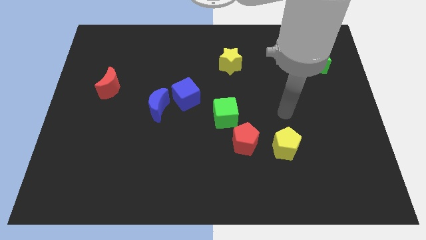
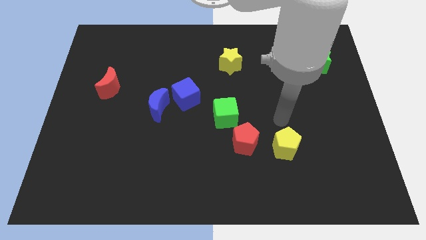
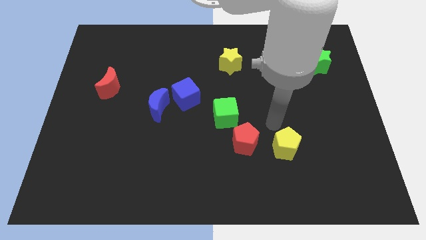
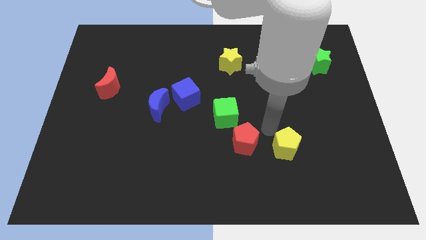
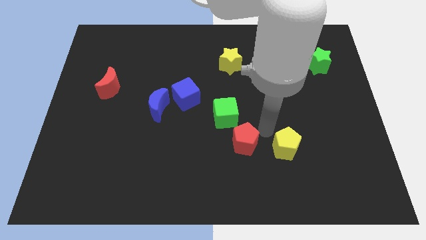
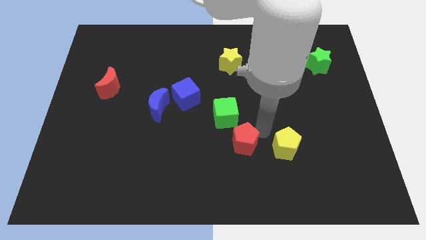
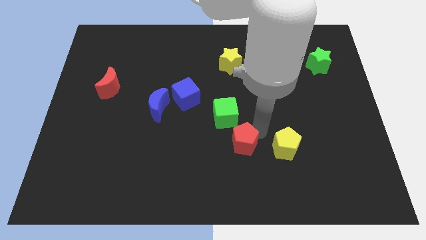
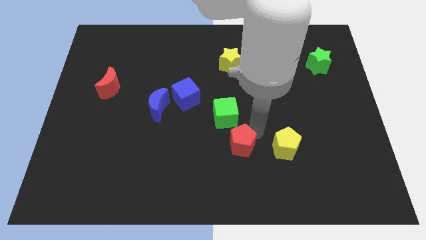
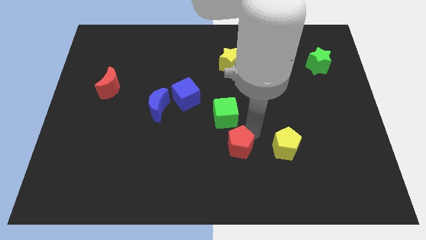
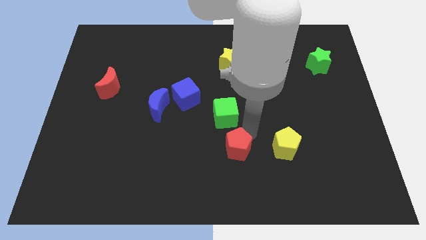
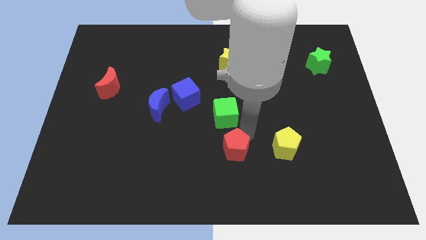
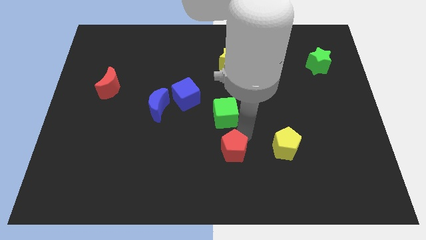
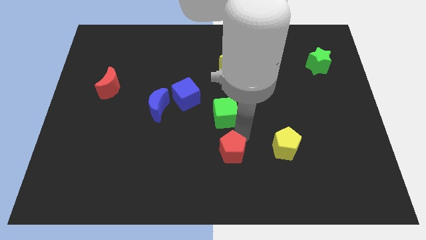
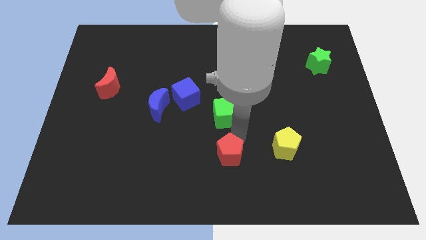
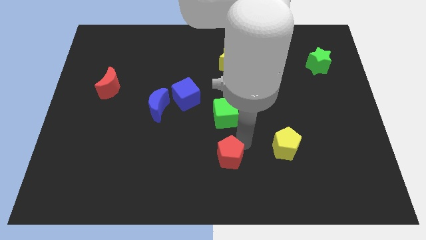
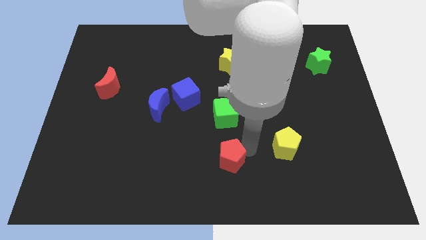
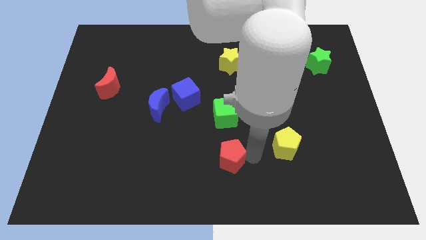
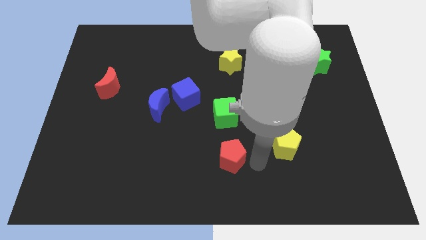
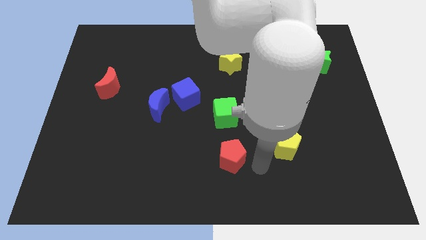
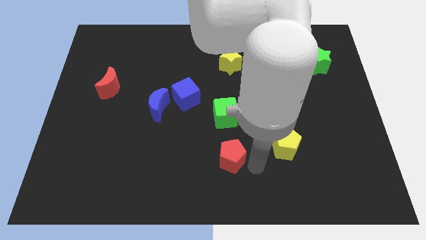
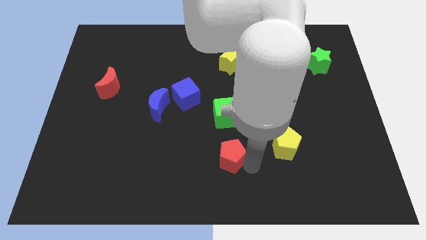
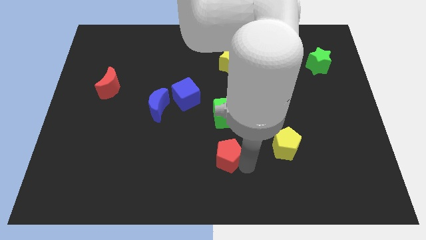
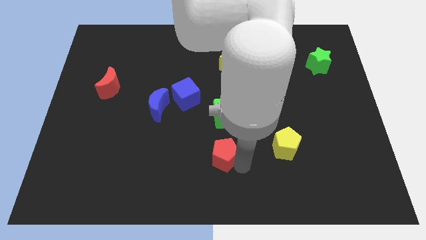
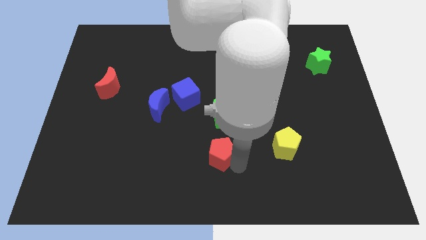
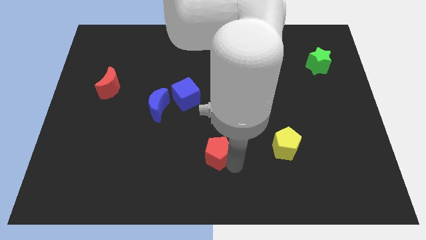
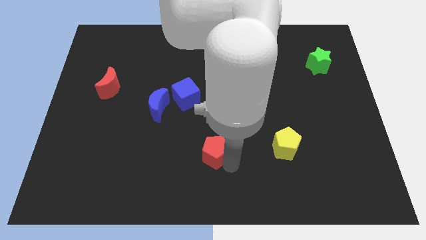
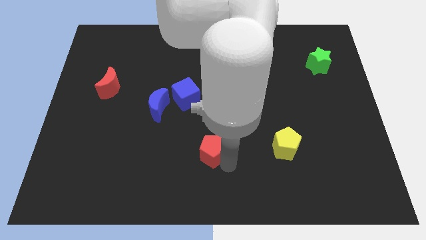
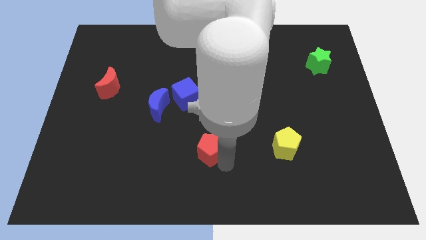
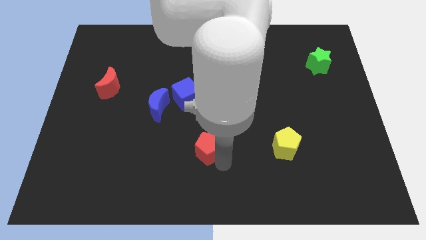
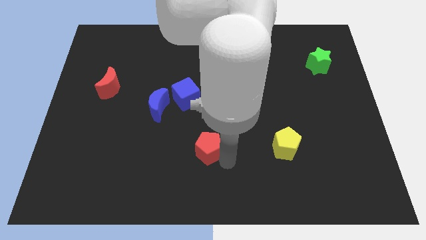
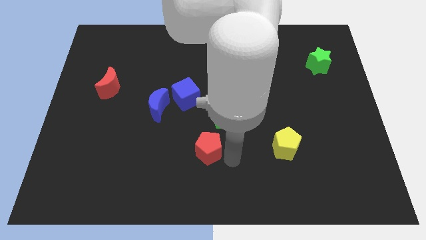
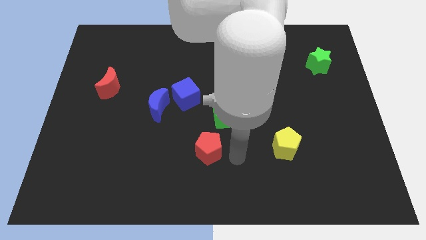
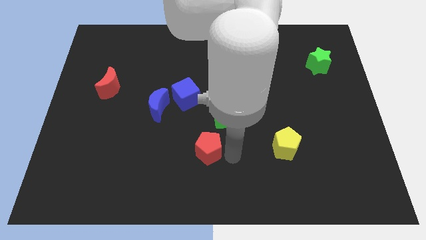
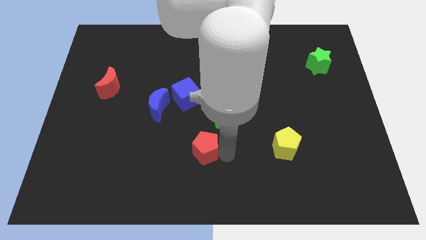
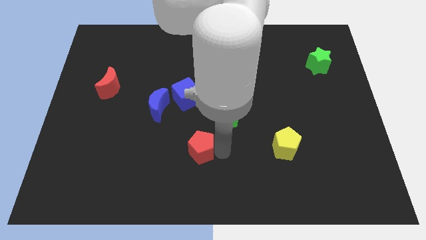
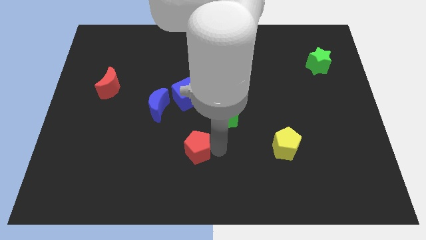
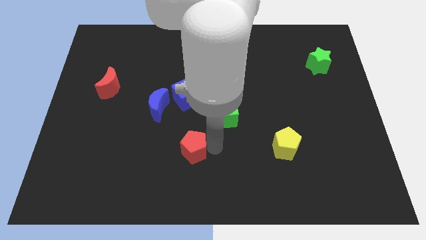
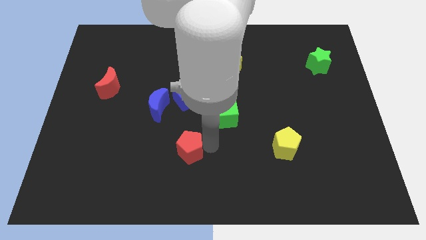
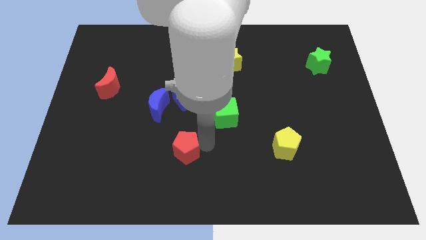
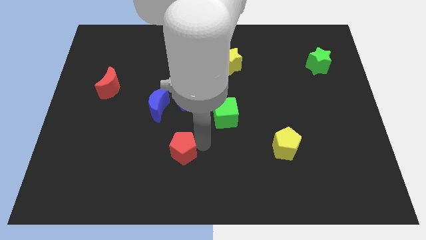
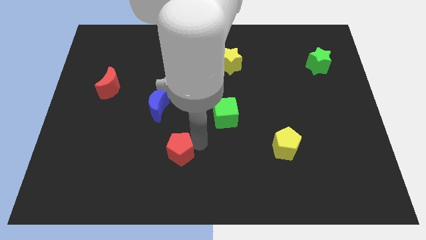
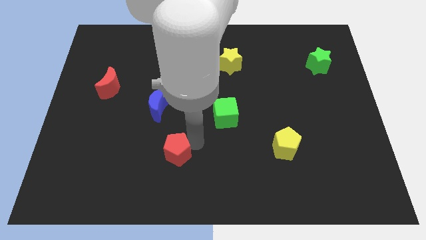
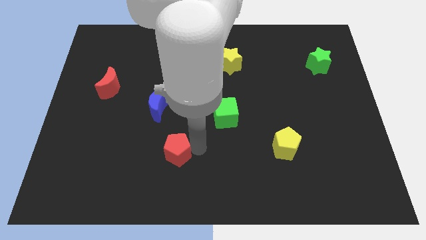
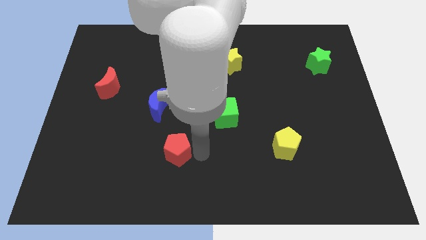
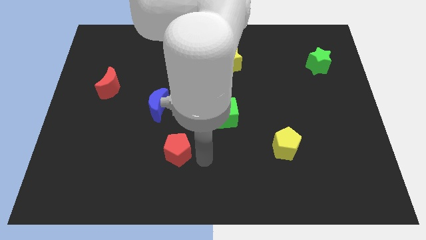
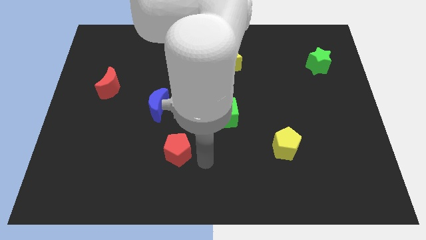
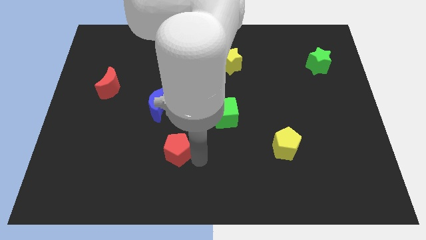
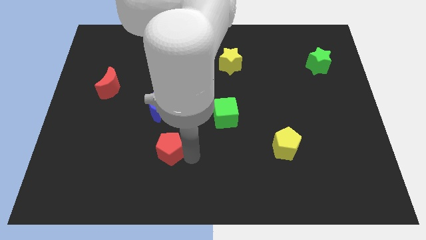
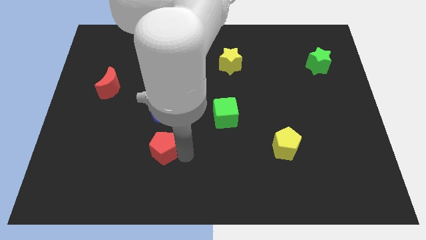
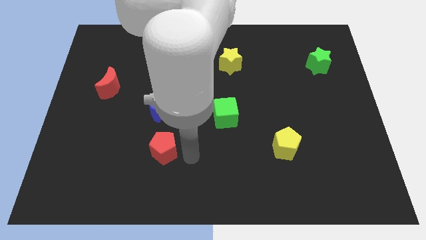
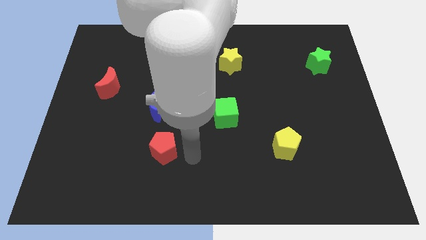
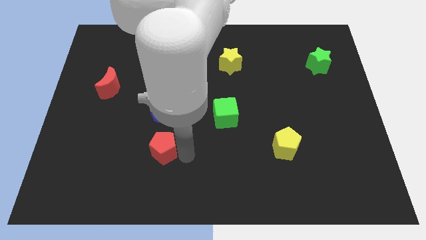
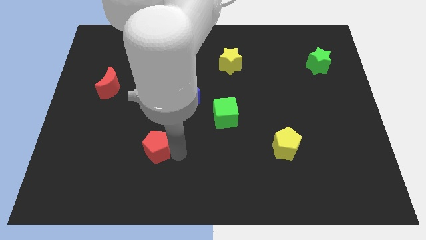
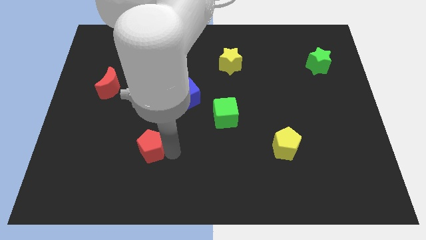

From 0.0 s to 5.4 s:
push the red pentagon to the left

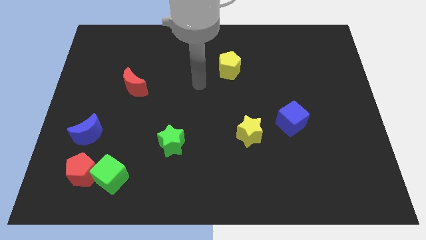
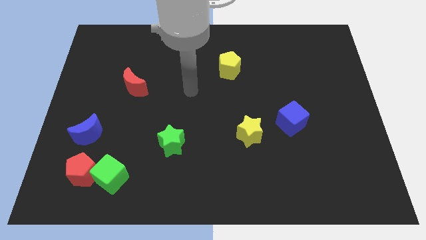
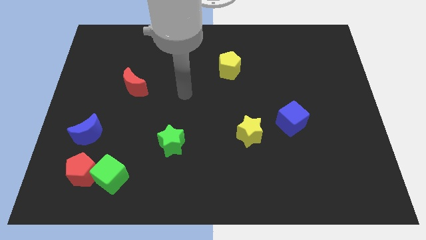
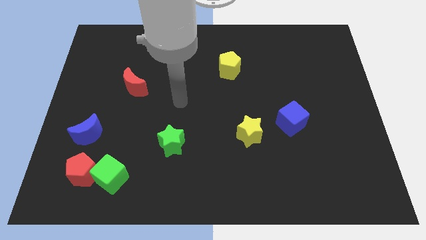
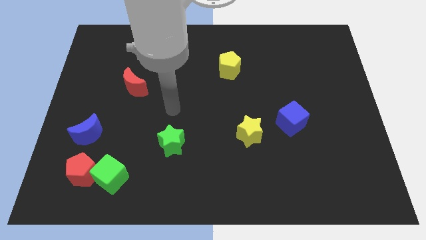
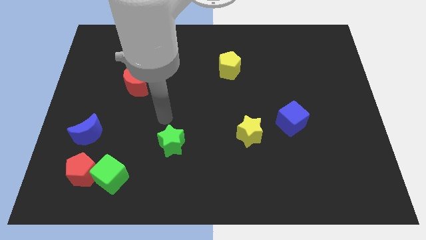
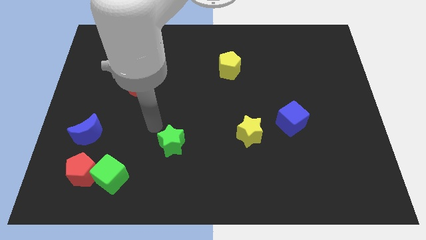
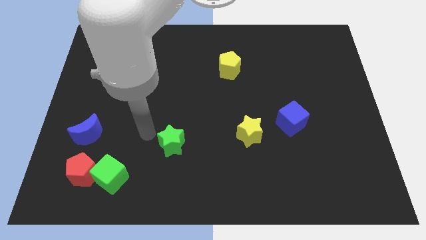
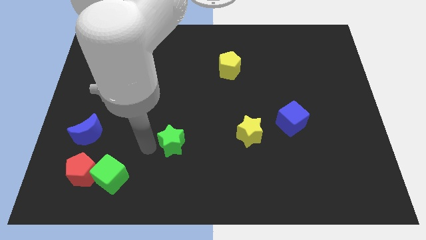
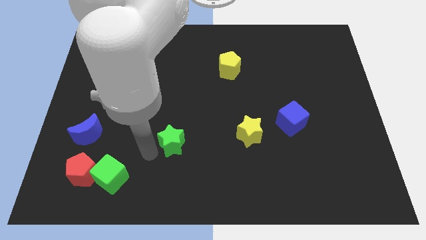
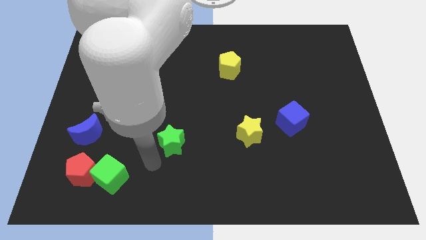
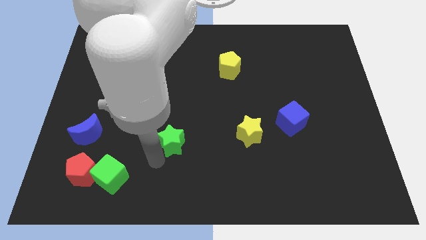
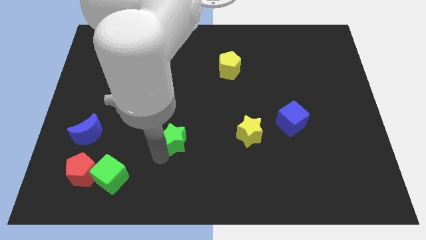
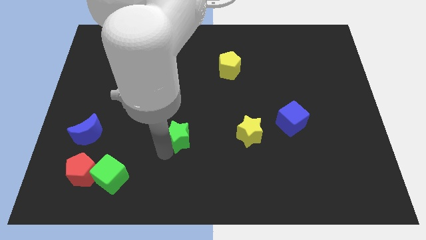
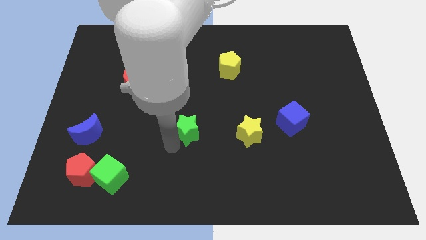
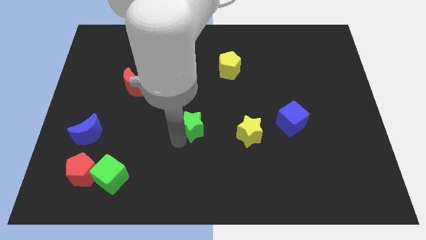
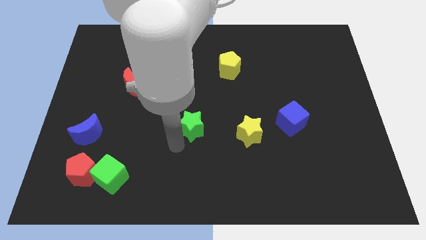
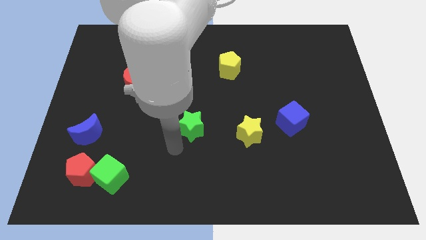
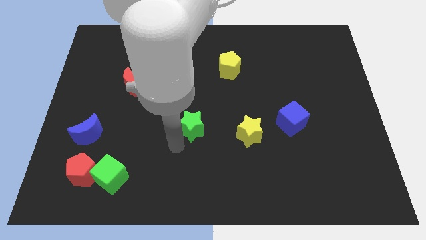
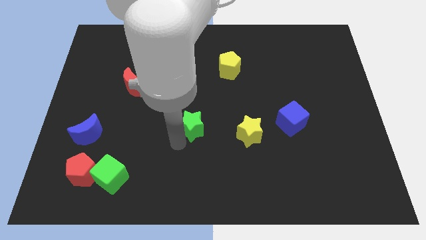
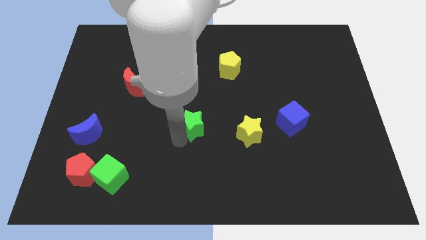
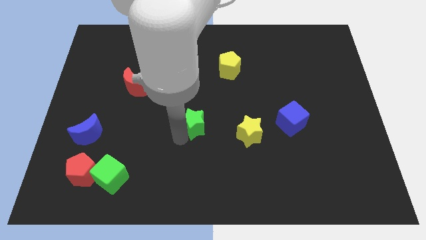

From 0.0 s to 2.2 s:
move the green star up and right a little

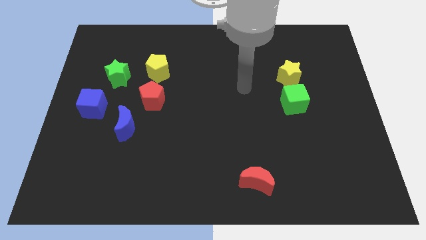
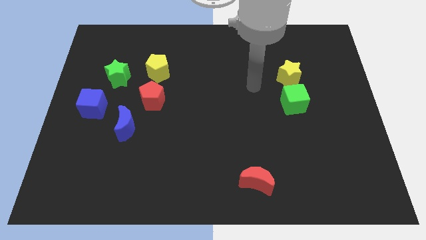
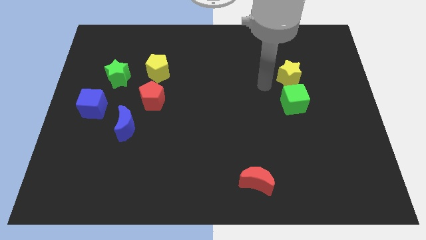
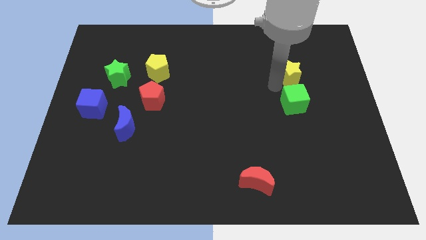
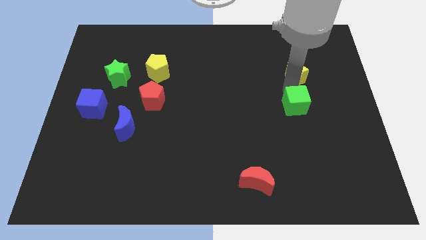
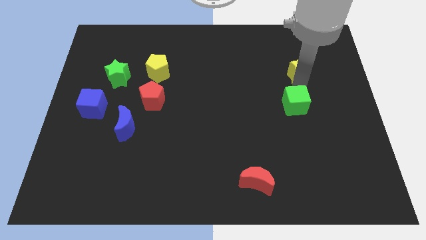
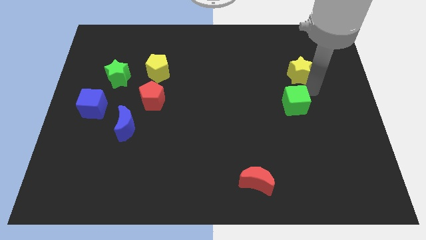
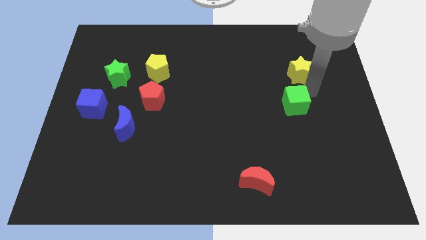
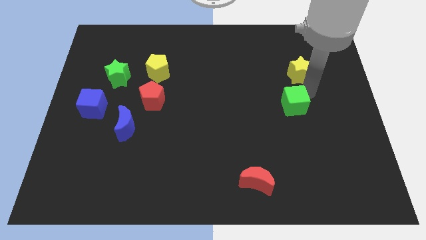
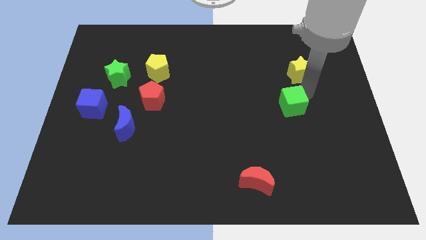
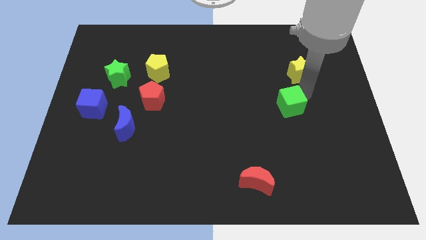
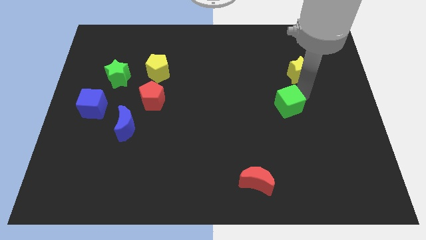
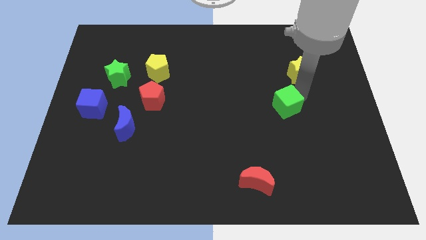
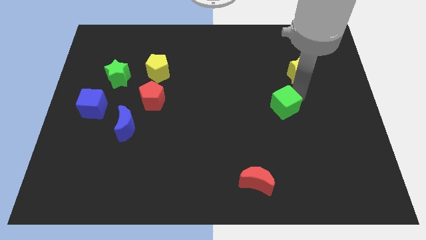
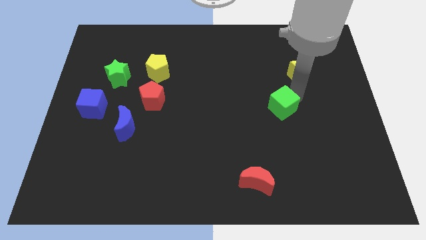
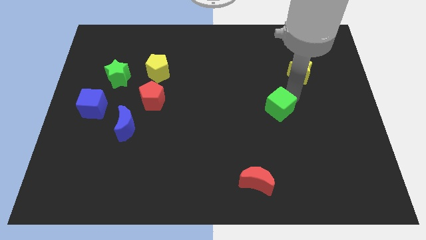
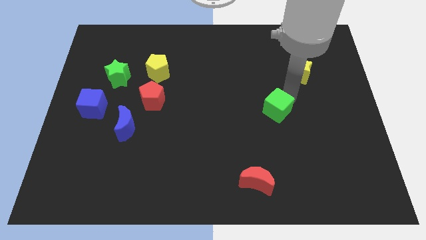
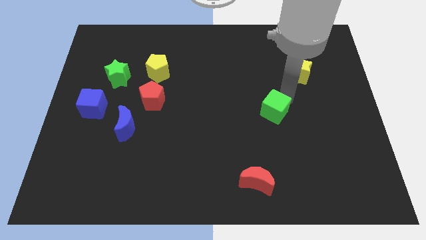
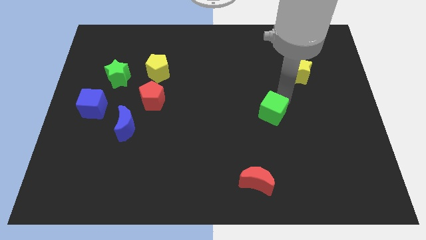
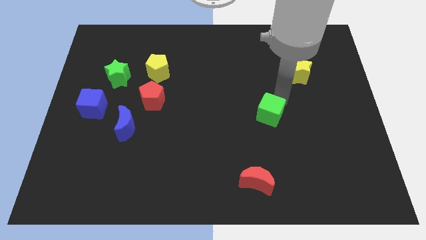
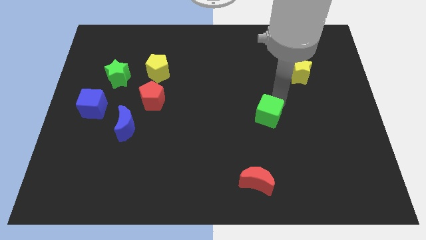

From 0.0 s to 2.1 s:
slightly slide the green cube downwards and then left
